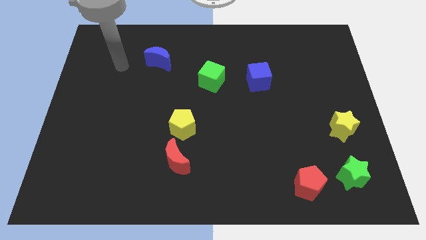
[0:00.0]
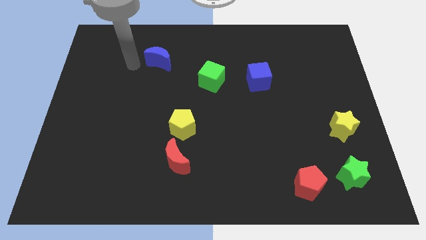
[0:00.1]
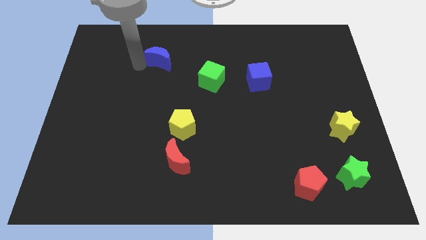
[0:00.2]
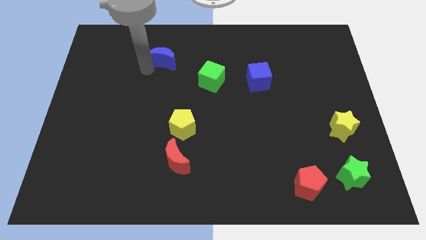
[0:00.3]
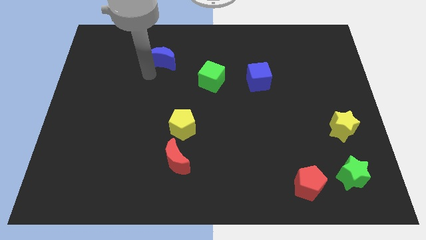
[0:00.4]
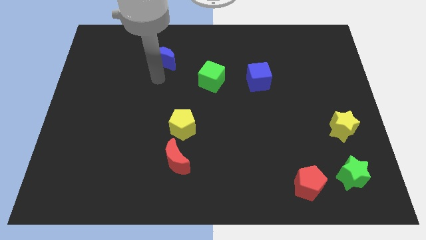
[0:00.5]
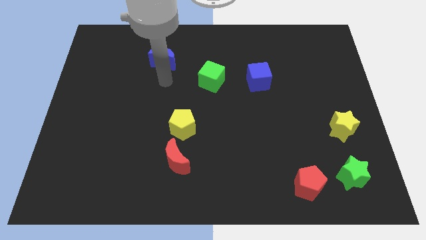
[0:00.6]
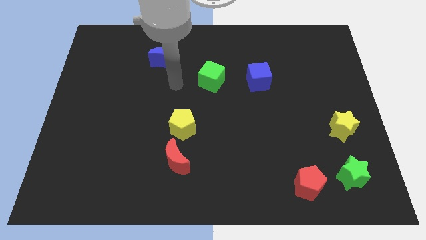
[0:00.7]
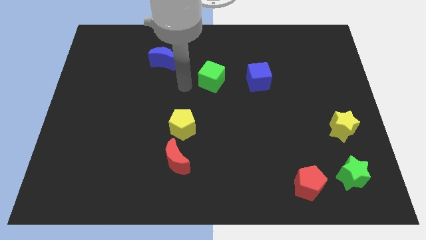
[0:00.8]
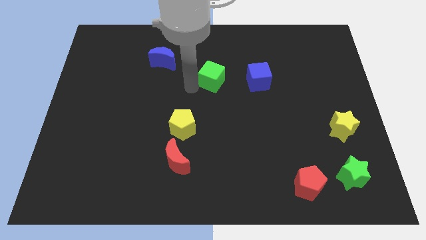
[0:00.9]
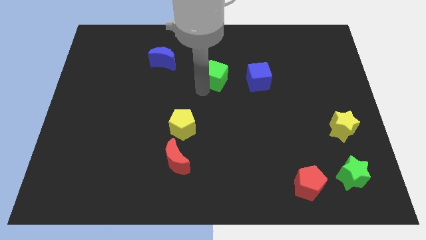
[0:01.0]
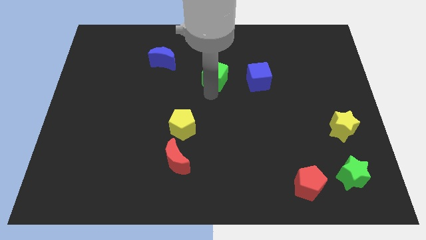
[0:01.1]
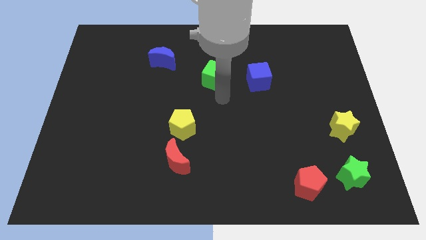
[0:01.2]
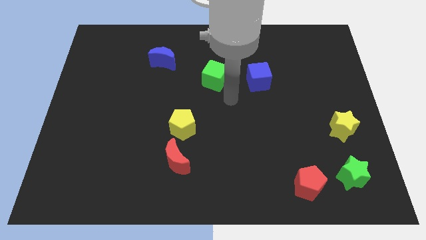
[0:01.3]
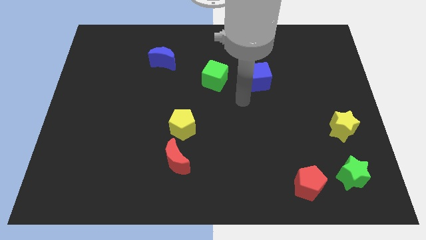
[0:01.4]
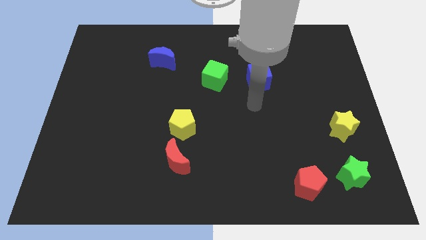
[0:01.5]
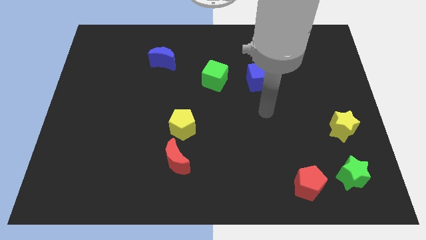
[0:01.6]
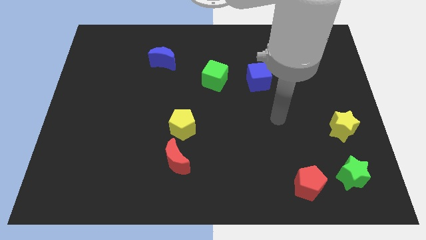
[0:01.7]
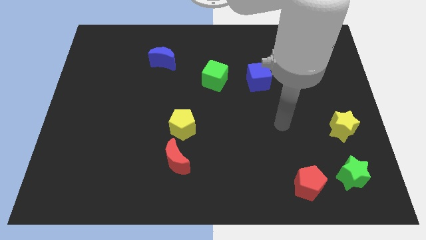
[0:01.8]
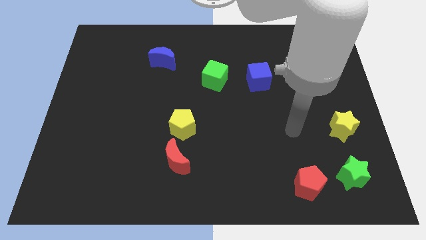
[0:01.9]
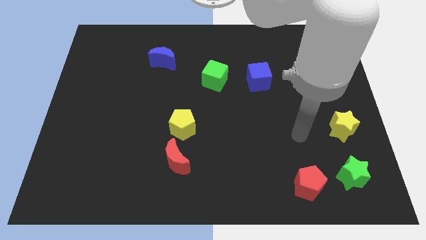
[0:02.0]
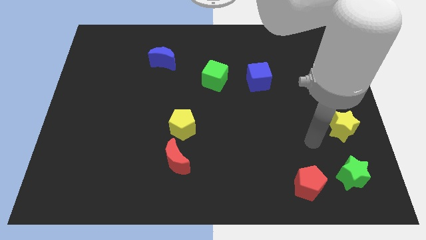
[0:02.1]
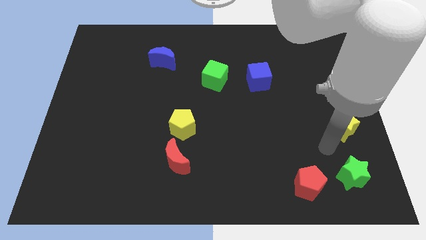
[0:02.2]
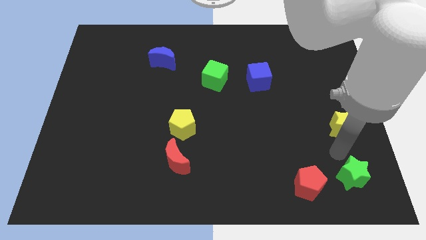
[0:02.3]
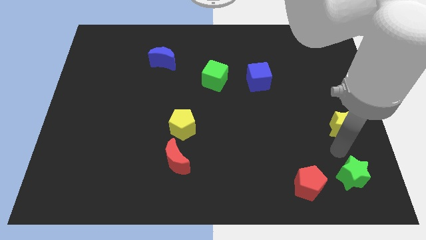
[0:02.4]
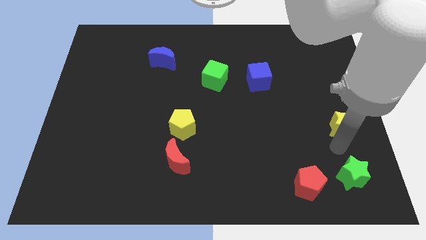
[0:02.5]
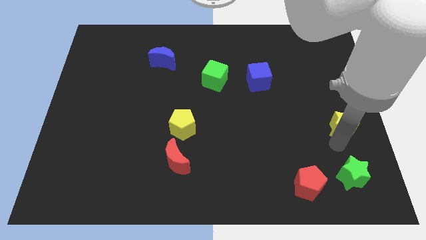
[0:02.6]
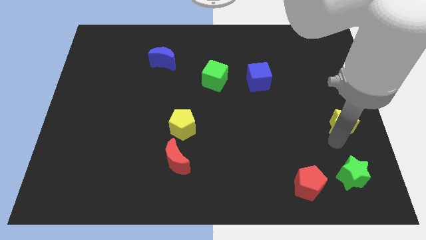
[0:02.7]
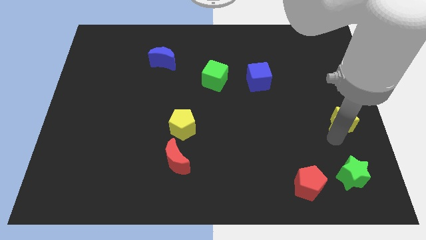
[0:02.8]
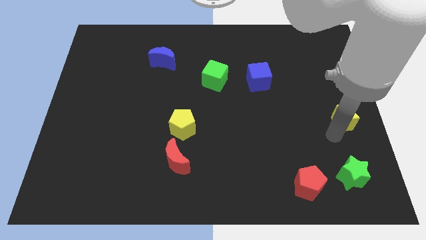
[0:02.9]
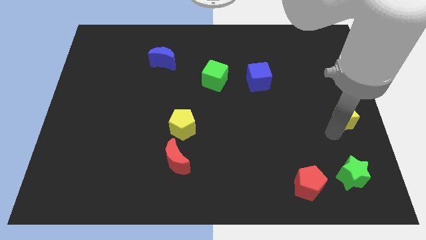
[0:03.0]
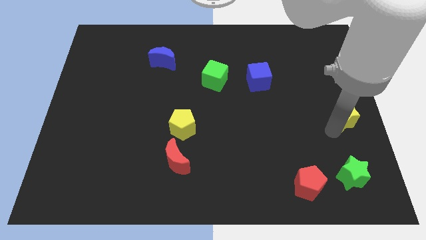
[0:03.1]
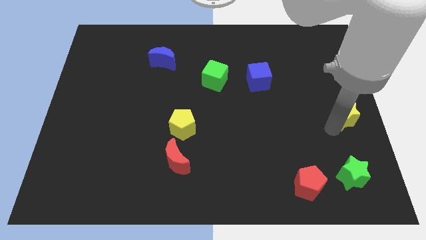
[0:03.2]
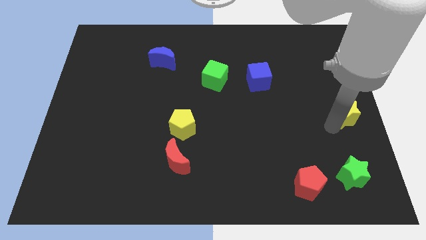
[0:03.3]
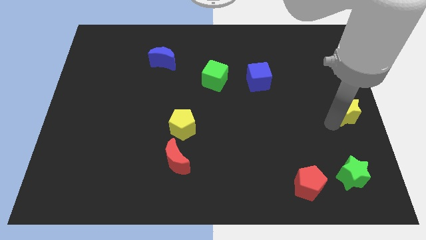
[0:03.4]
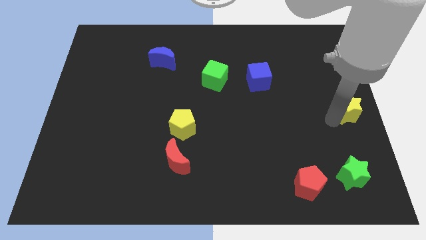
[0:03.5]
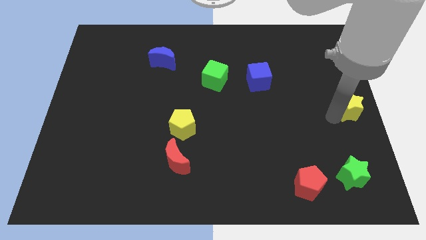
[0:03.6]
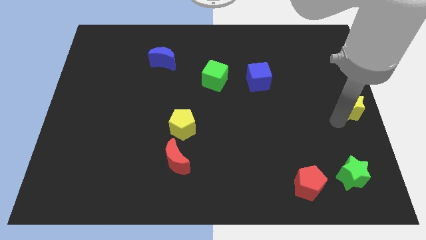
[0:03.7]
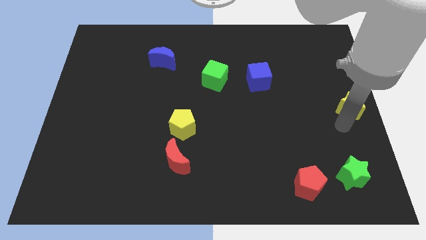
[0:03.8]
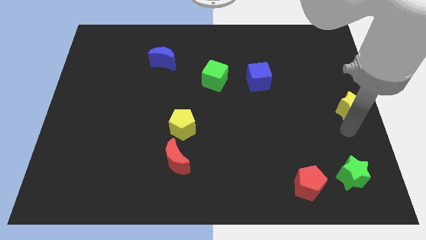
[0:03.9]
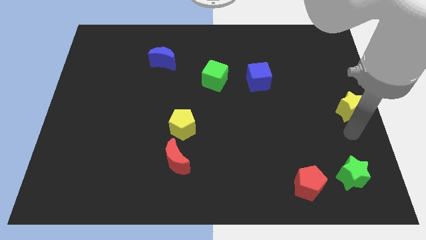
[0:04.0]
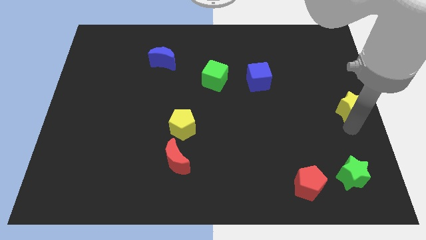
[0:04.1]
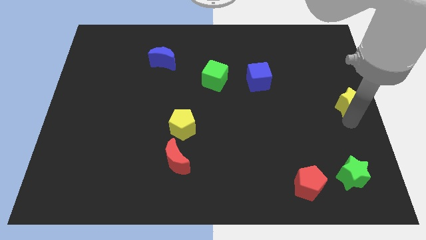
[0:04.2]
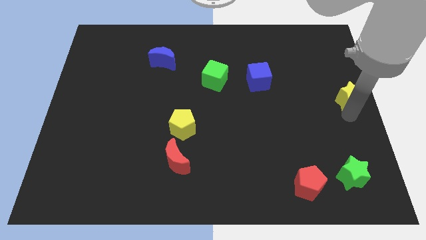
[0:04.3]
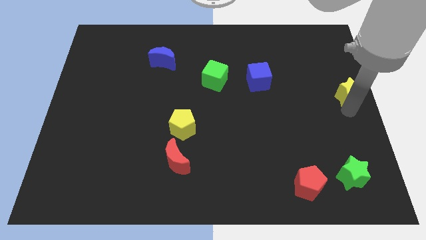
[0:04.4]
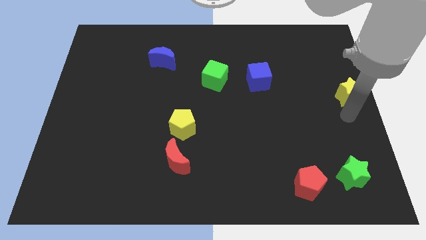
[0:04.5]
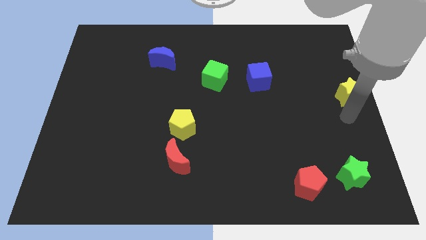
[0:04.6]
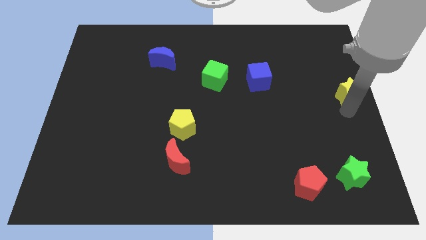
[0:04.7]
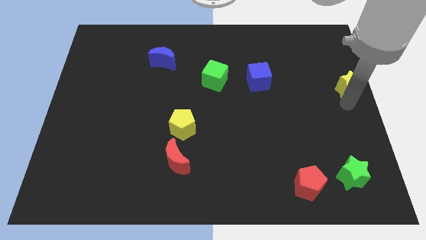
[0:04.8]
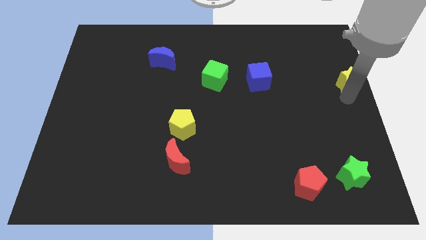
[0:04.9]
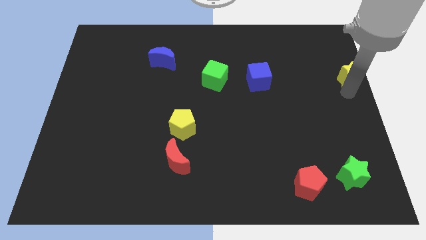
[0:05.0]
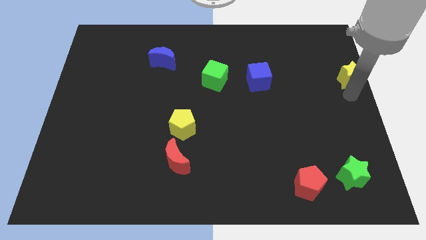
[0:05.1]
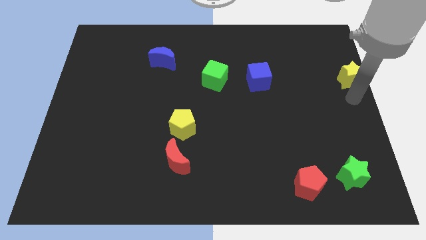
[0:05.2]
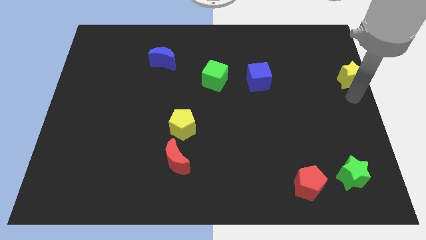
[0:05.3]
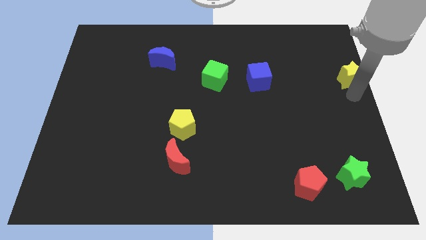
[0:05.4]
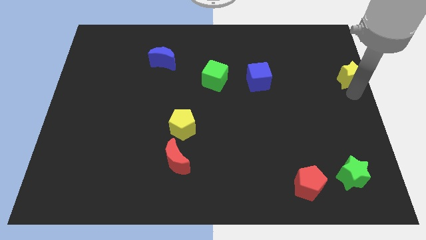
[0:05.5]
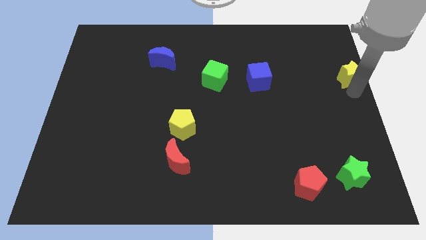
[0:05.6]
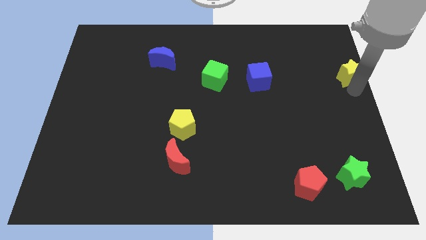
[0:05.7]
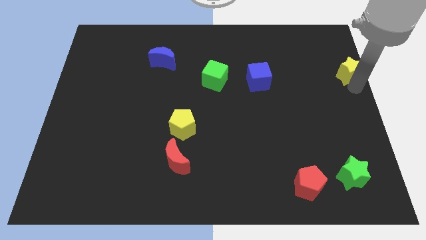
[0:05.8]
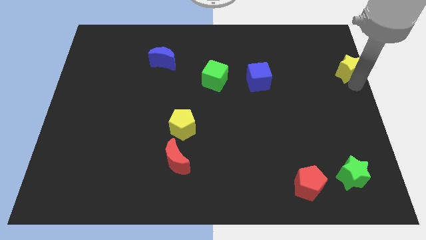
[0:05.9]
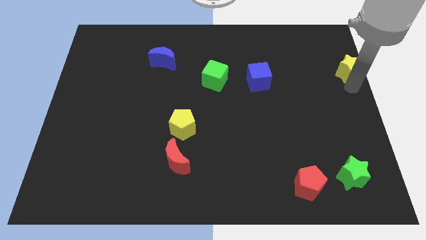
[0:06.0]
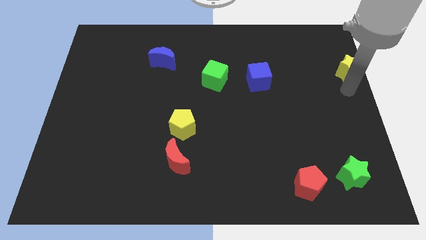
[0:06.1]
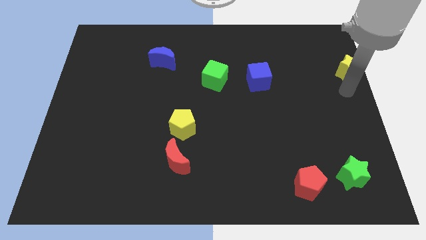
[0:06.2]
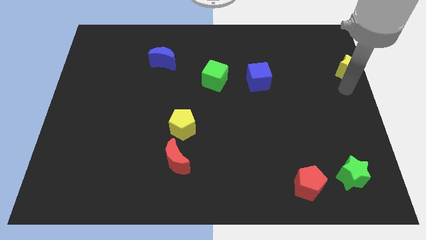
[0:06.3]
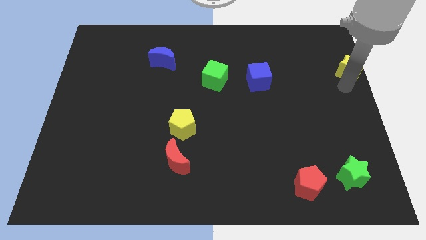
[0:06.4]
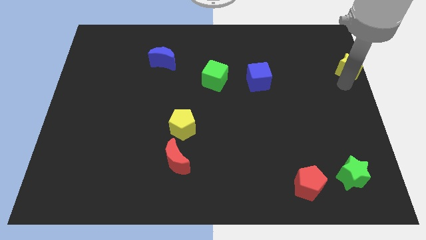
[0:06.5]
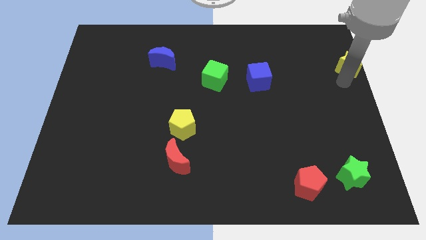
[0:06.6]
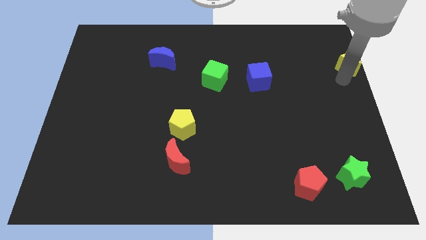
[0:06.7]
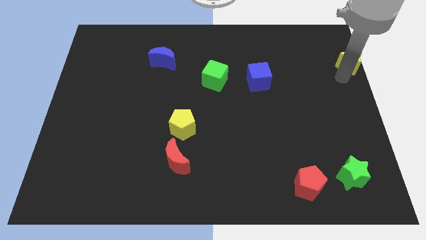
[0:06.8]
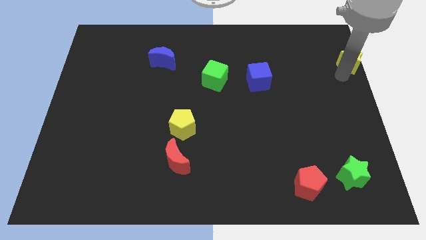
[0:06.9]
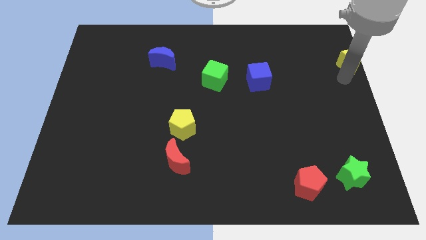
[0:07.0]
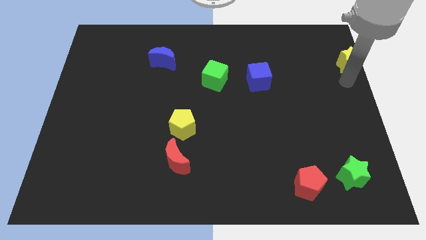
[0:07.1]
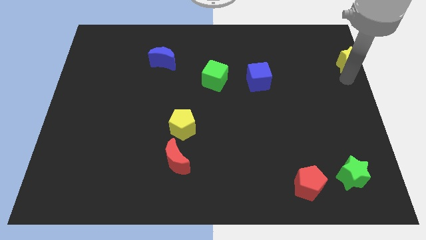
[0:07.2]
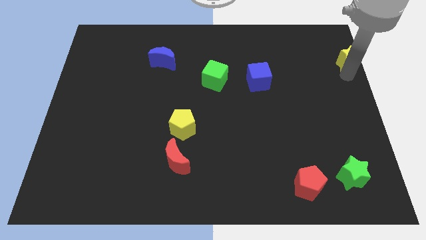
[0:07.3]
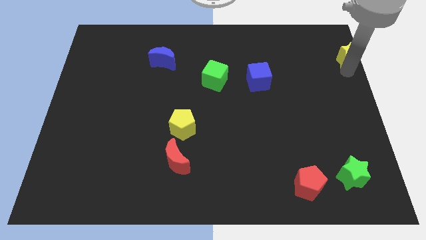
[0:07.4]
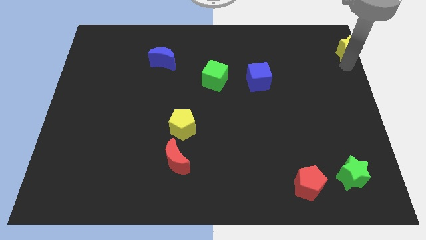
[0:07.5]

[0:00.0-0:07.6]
put the yellow star to the top right of the board

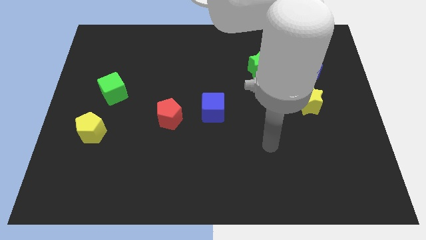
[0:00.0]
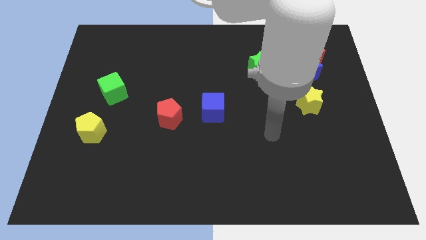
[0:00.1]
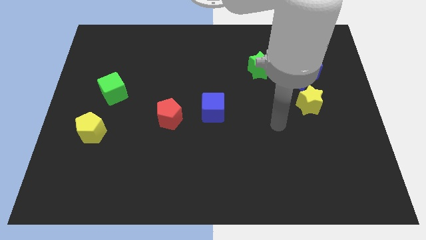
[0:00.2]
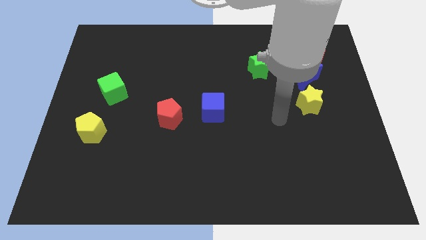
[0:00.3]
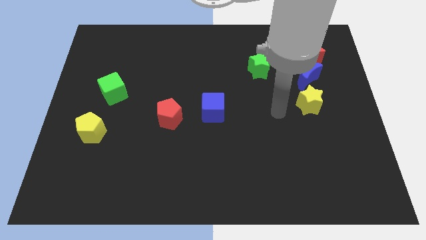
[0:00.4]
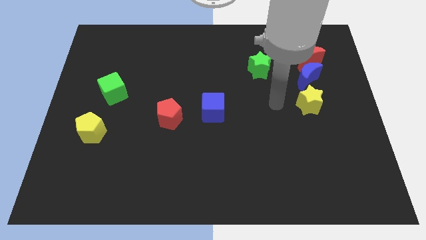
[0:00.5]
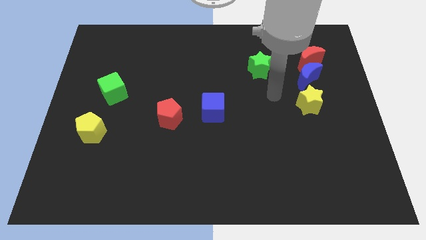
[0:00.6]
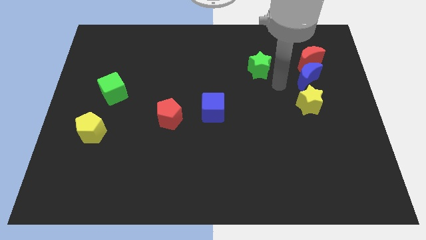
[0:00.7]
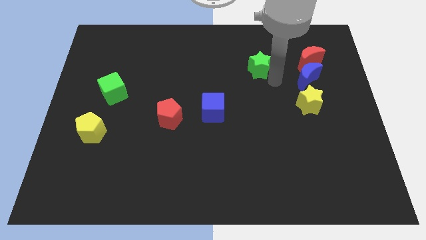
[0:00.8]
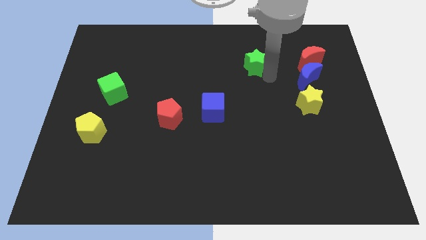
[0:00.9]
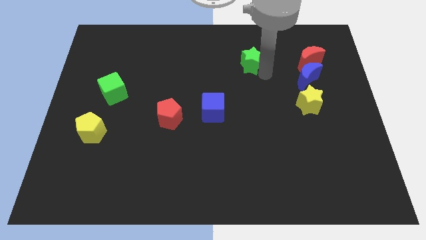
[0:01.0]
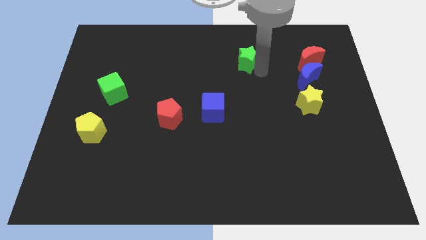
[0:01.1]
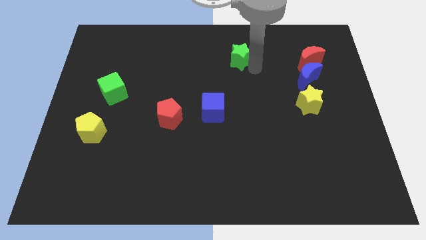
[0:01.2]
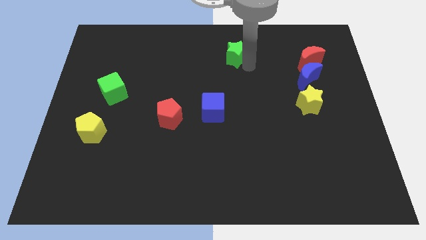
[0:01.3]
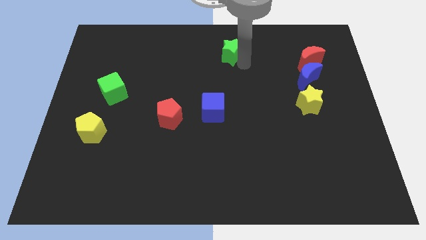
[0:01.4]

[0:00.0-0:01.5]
push the green star to the towards your base
